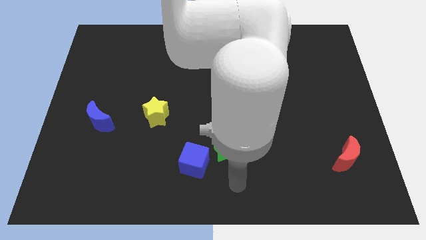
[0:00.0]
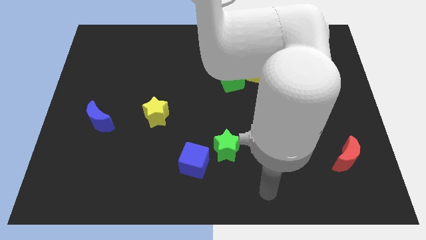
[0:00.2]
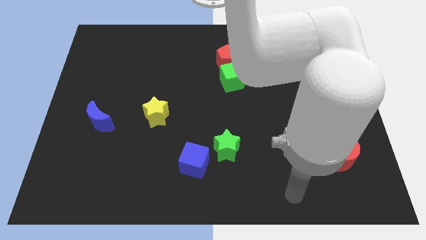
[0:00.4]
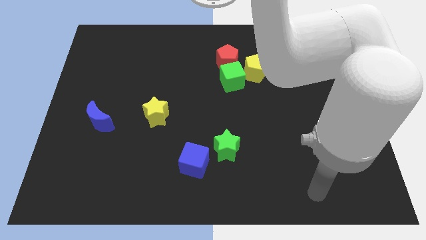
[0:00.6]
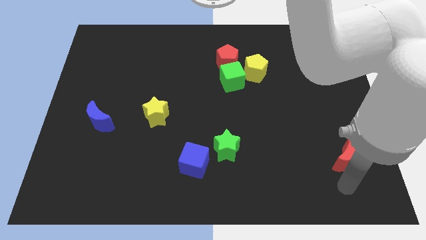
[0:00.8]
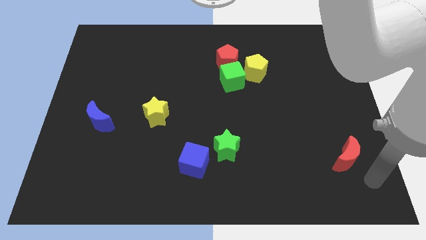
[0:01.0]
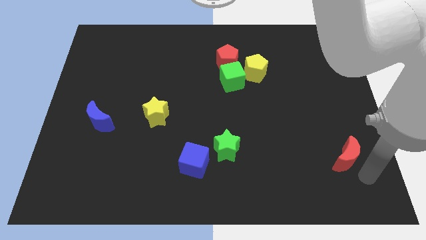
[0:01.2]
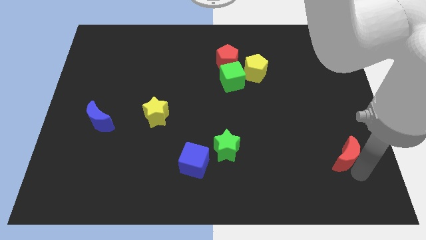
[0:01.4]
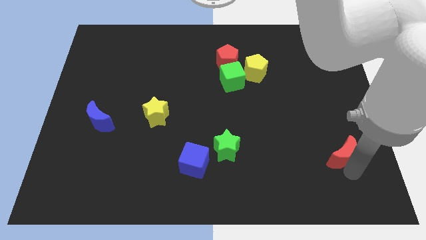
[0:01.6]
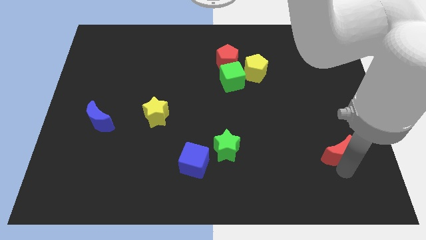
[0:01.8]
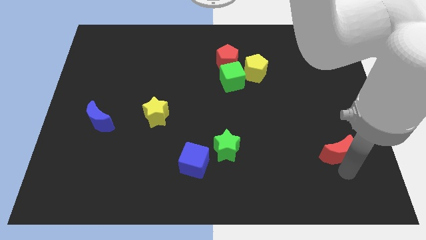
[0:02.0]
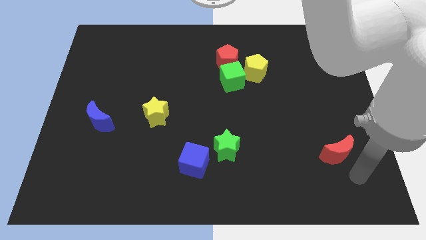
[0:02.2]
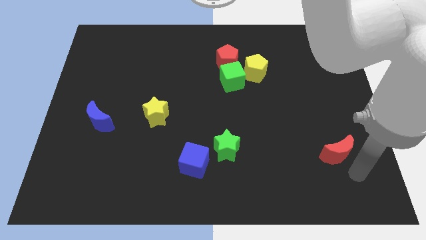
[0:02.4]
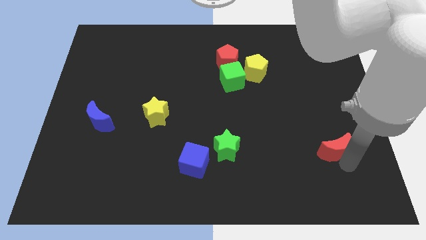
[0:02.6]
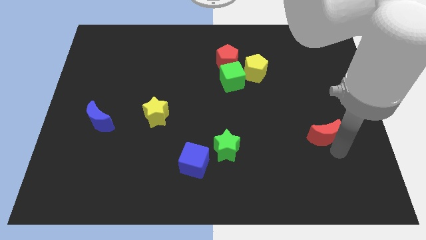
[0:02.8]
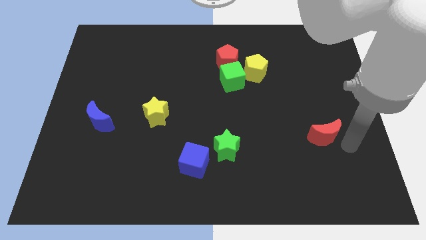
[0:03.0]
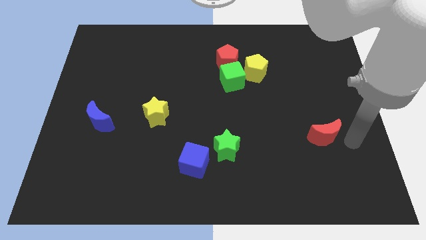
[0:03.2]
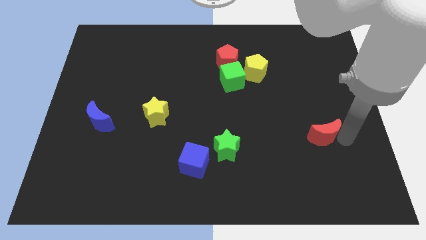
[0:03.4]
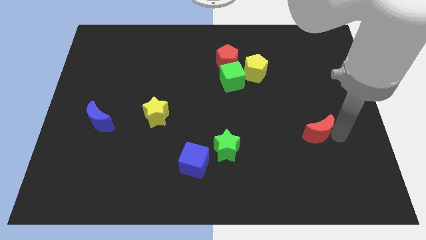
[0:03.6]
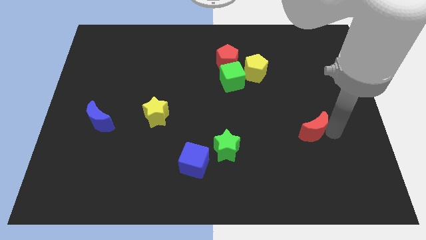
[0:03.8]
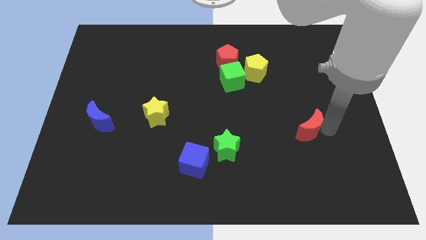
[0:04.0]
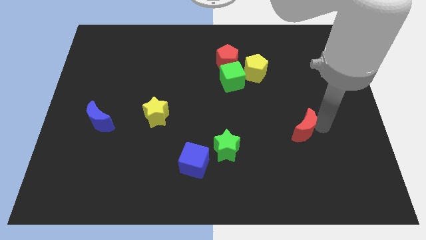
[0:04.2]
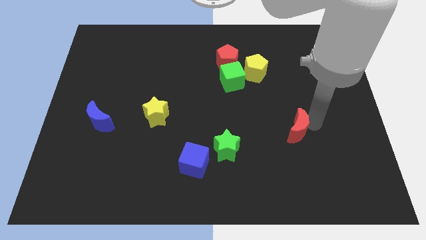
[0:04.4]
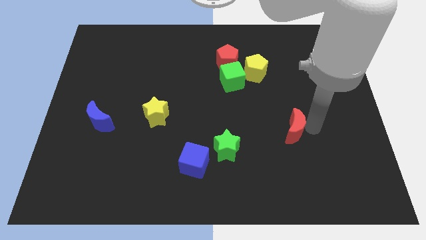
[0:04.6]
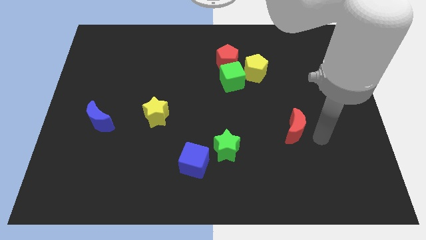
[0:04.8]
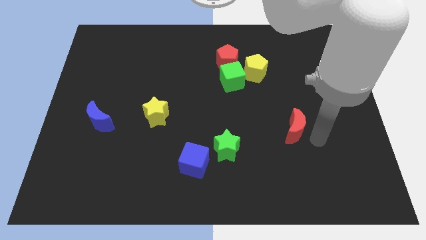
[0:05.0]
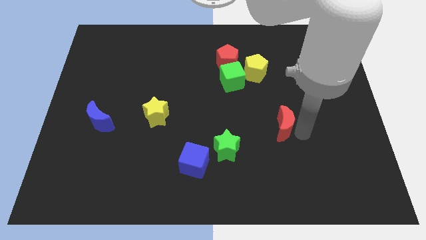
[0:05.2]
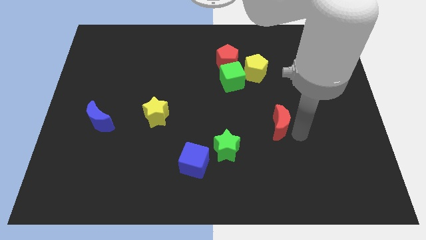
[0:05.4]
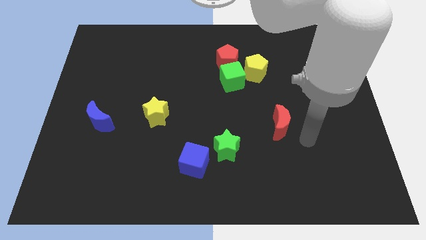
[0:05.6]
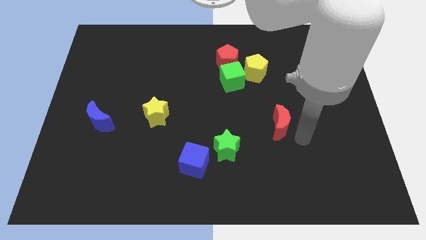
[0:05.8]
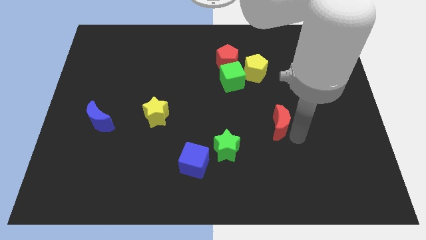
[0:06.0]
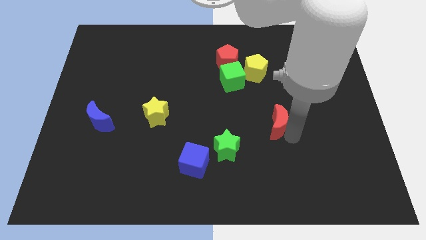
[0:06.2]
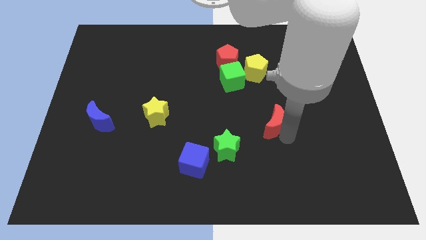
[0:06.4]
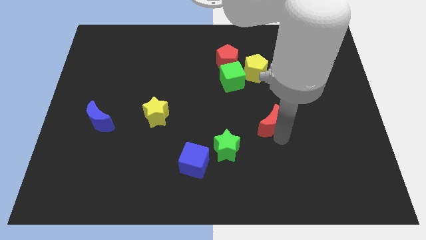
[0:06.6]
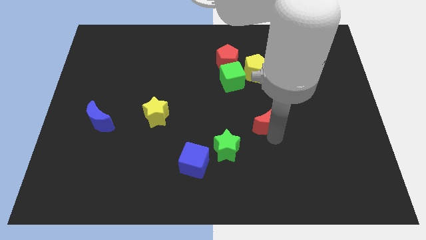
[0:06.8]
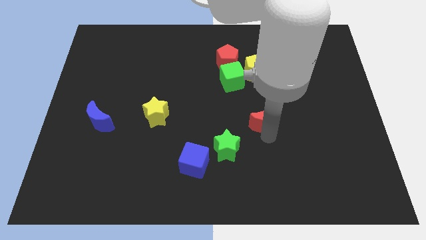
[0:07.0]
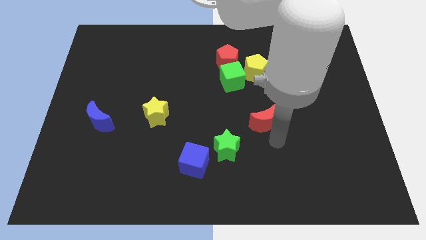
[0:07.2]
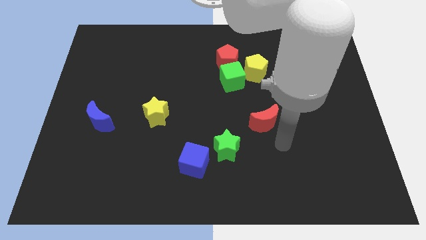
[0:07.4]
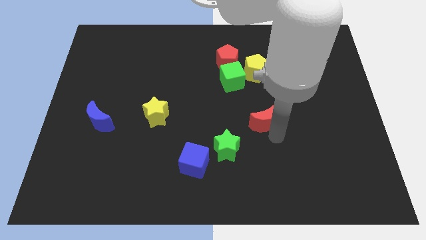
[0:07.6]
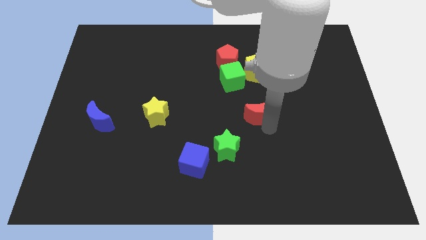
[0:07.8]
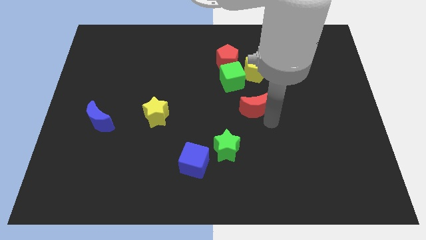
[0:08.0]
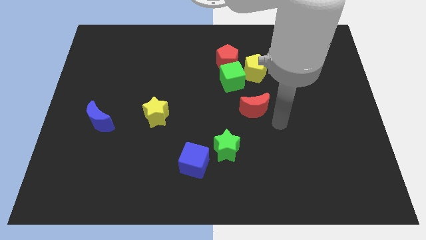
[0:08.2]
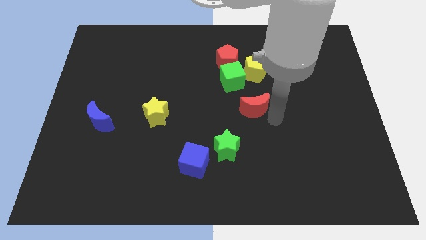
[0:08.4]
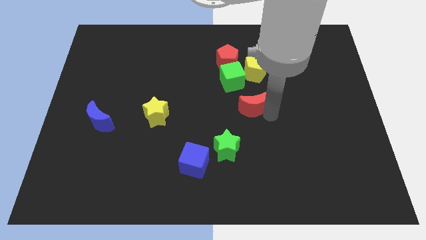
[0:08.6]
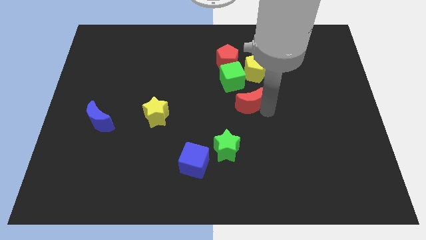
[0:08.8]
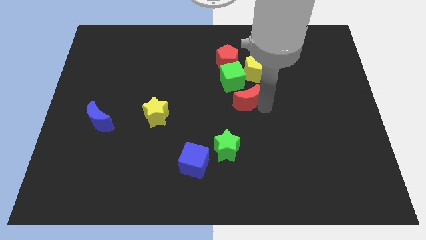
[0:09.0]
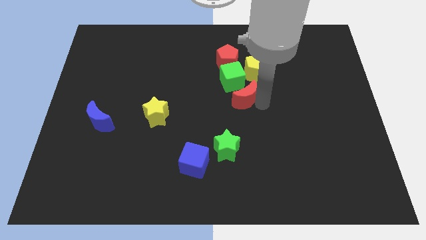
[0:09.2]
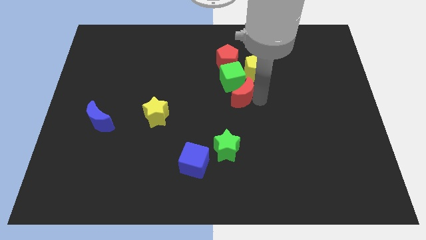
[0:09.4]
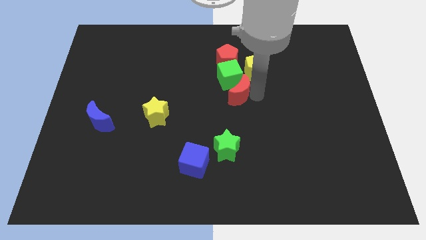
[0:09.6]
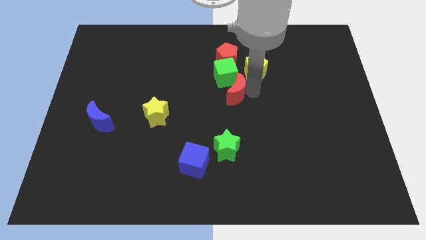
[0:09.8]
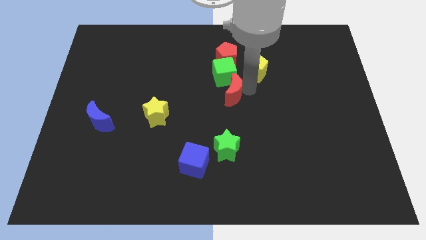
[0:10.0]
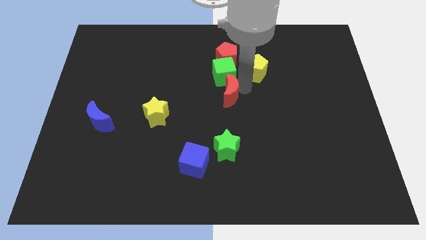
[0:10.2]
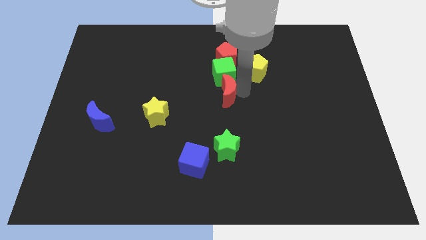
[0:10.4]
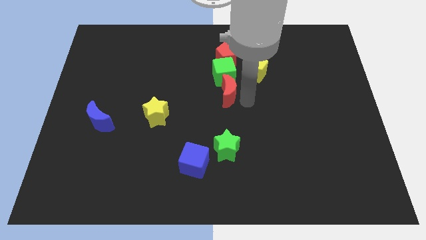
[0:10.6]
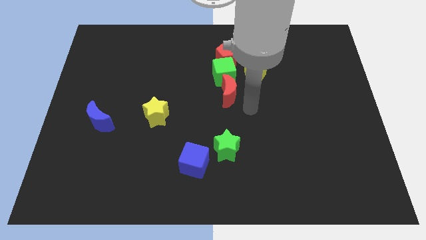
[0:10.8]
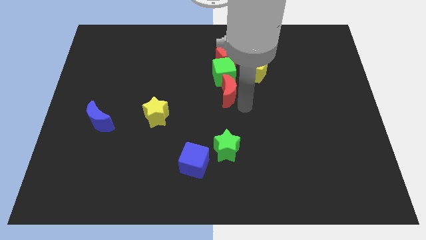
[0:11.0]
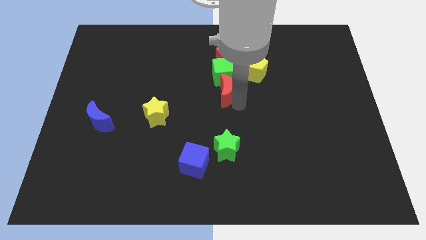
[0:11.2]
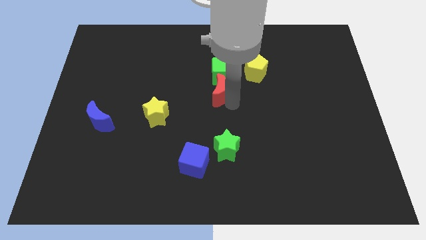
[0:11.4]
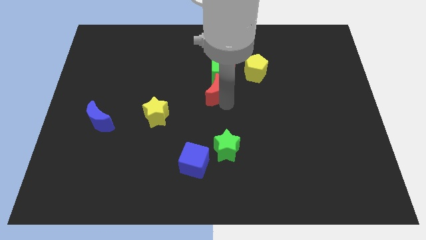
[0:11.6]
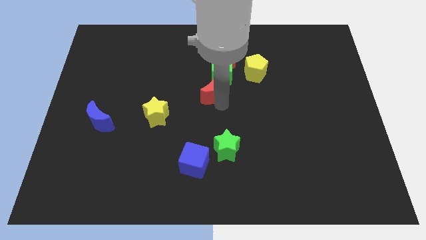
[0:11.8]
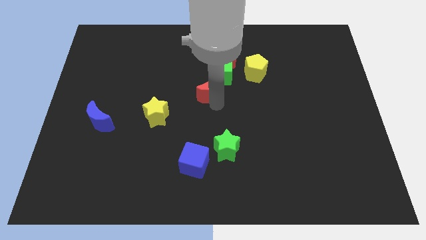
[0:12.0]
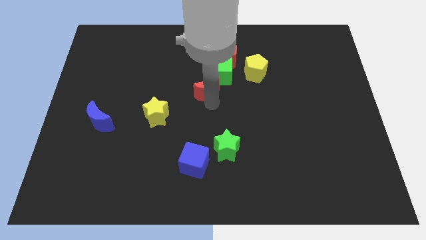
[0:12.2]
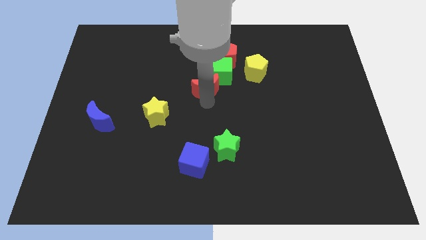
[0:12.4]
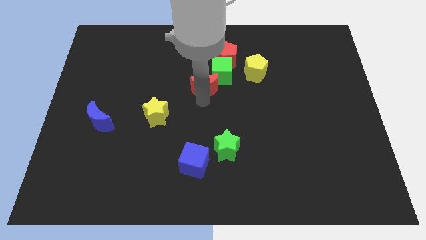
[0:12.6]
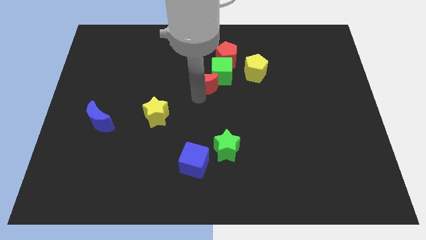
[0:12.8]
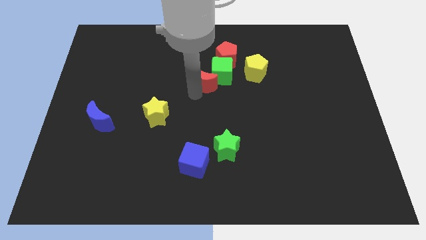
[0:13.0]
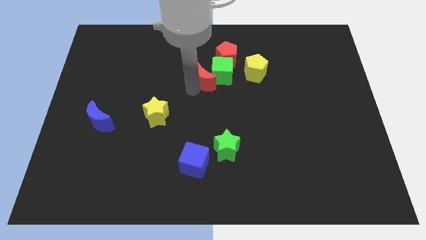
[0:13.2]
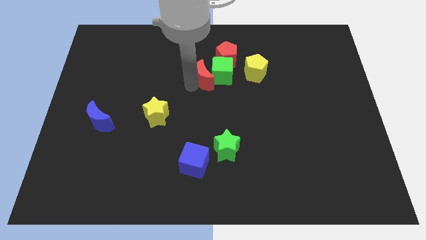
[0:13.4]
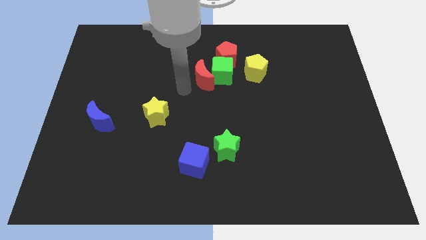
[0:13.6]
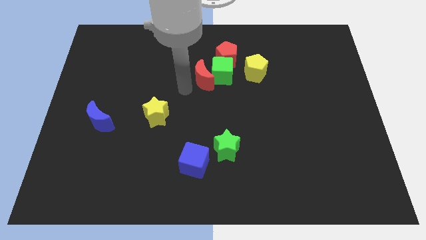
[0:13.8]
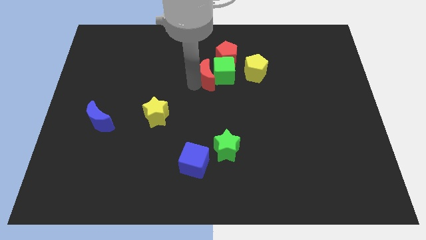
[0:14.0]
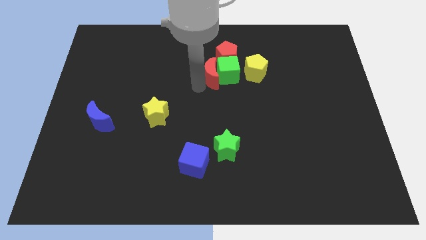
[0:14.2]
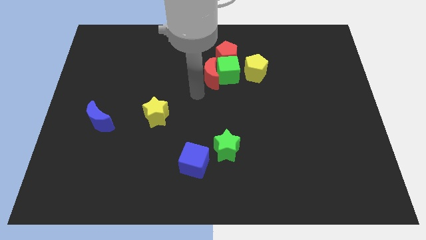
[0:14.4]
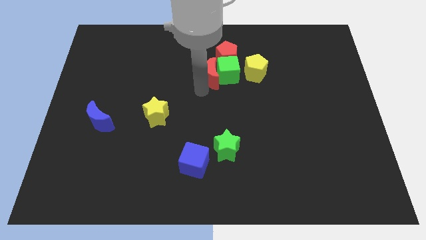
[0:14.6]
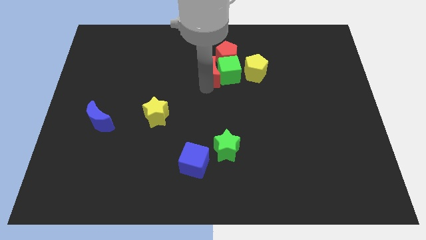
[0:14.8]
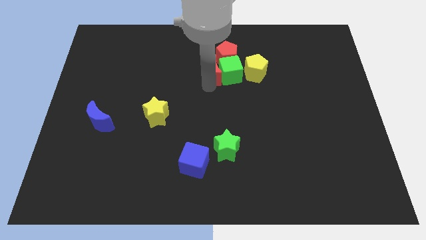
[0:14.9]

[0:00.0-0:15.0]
move the red moon to the red pentagon

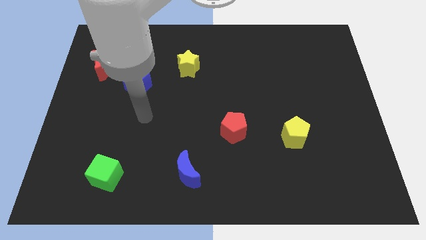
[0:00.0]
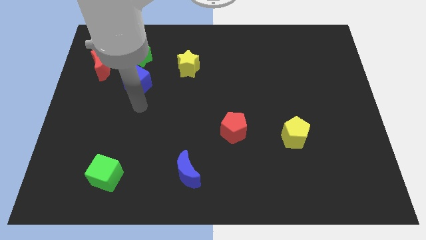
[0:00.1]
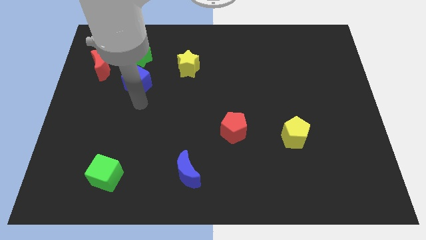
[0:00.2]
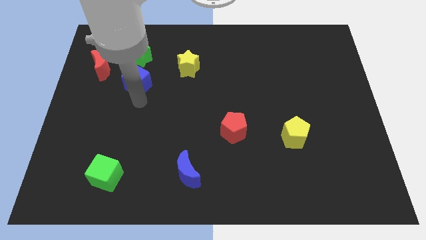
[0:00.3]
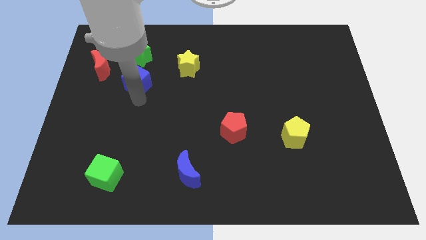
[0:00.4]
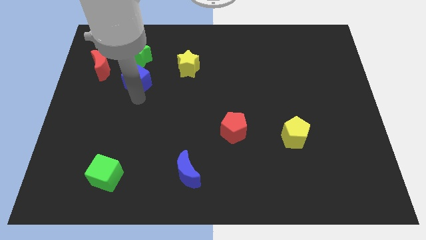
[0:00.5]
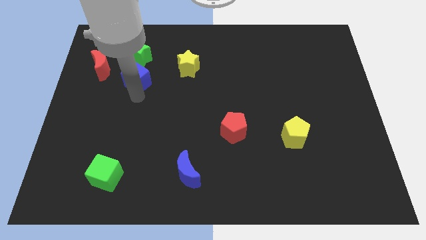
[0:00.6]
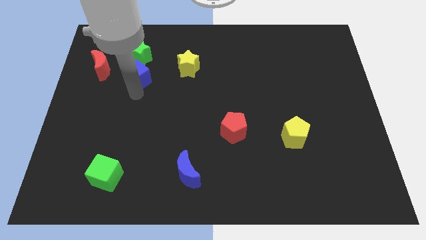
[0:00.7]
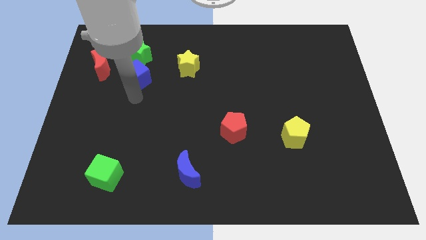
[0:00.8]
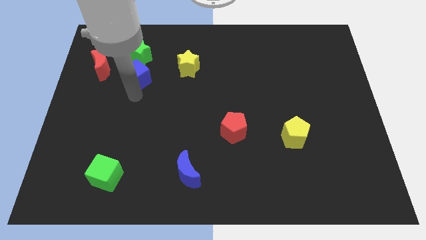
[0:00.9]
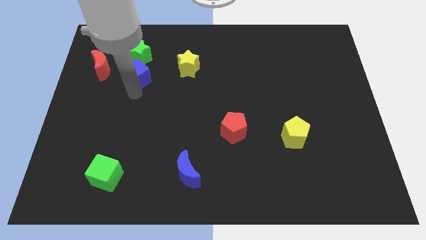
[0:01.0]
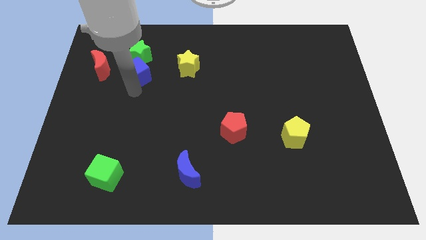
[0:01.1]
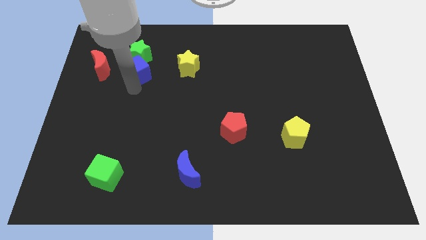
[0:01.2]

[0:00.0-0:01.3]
put the blue cube next to the green star
